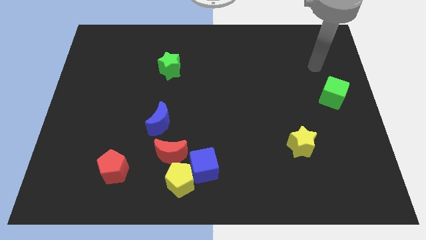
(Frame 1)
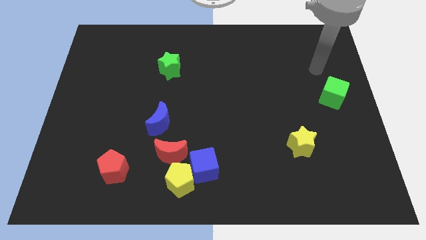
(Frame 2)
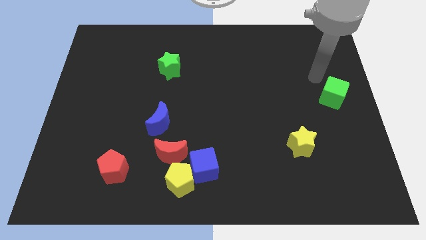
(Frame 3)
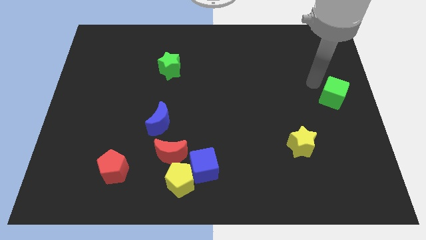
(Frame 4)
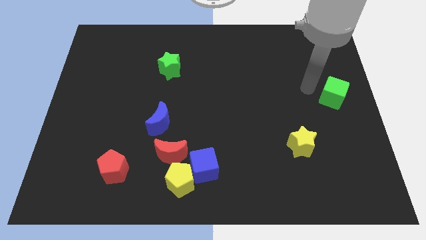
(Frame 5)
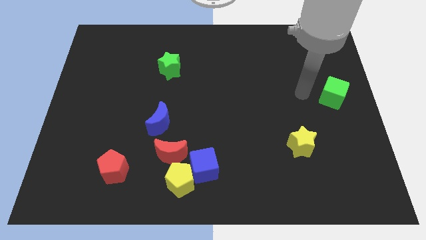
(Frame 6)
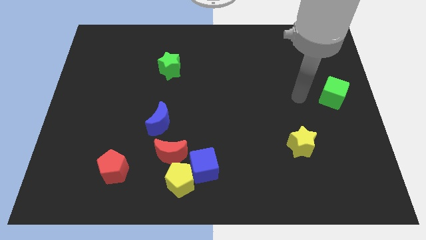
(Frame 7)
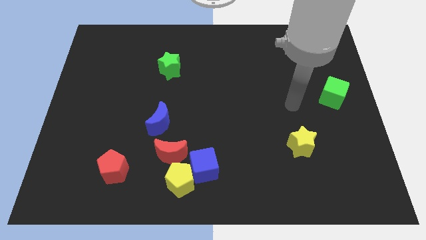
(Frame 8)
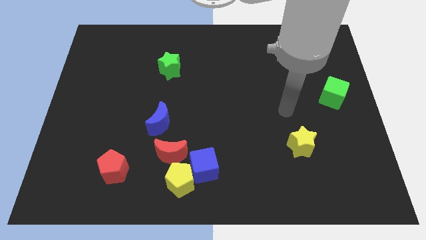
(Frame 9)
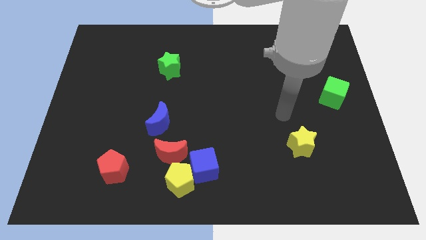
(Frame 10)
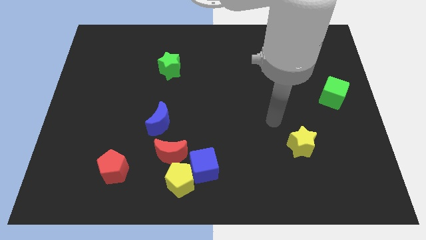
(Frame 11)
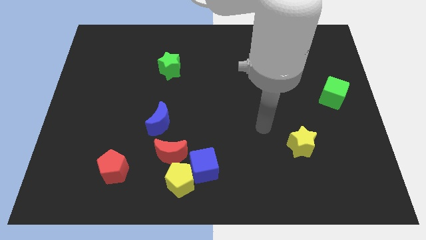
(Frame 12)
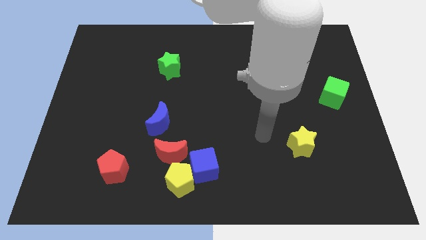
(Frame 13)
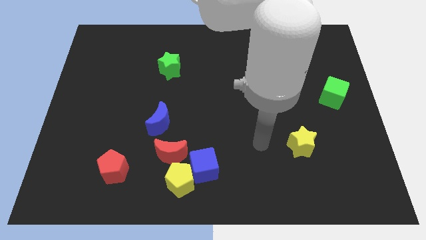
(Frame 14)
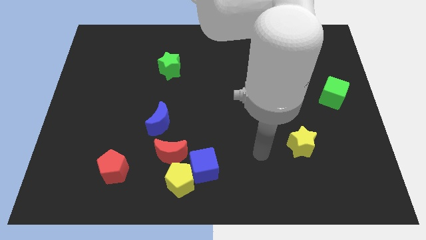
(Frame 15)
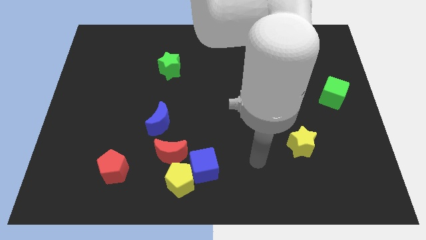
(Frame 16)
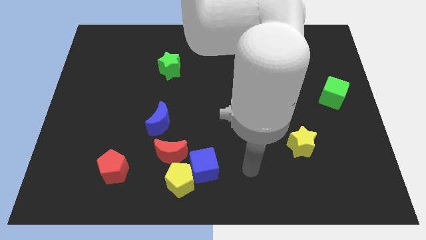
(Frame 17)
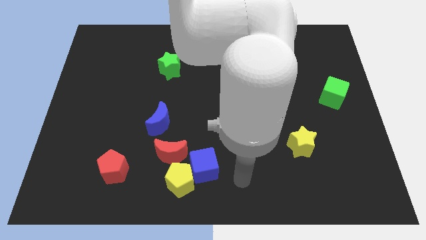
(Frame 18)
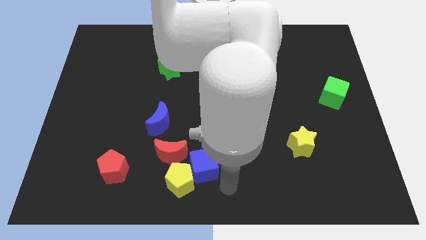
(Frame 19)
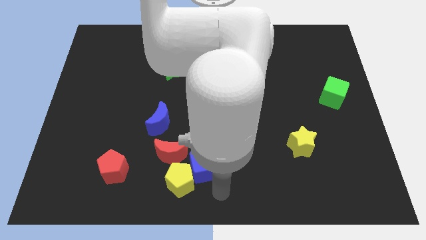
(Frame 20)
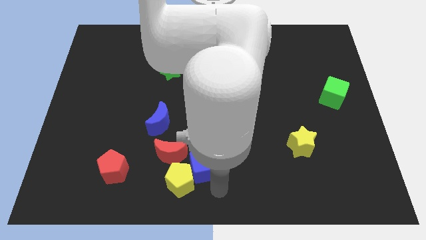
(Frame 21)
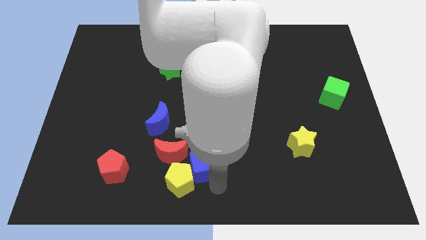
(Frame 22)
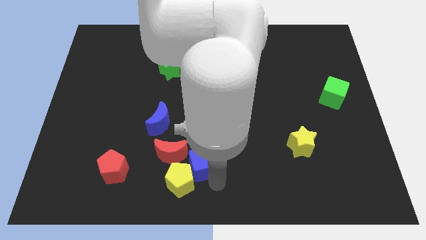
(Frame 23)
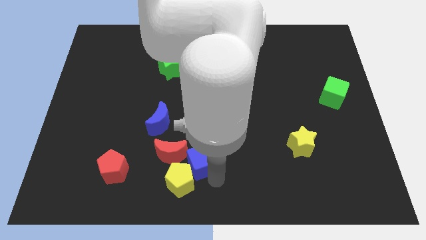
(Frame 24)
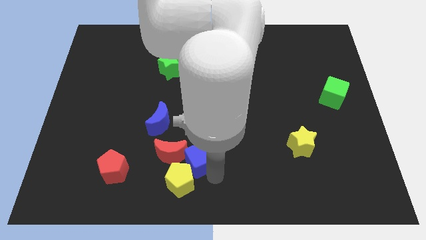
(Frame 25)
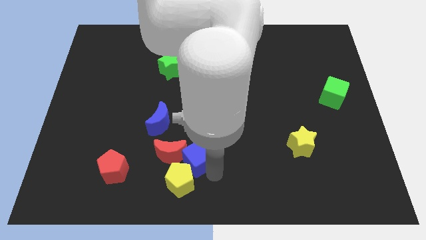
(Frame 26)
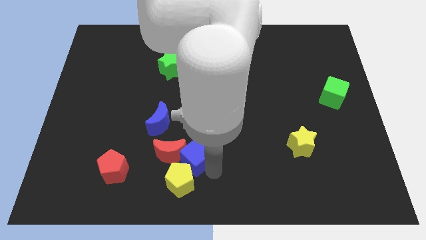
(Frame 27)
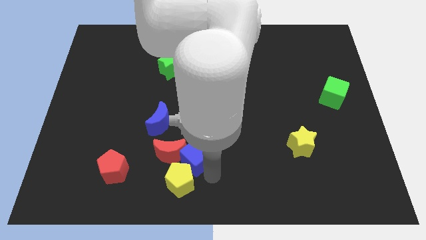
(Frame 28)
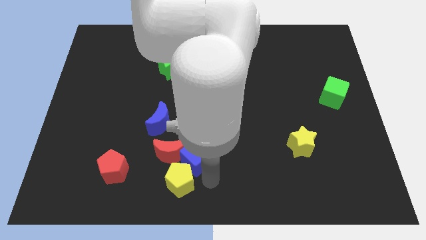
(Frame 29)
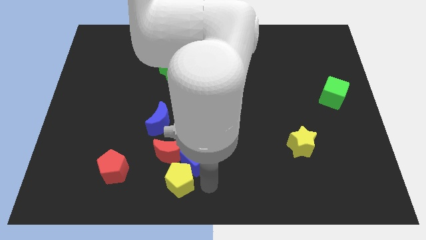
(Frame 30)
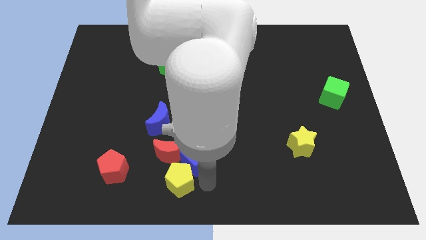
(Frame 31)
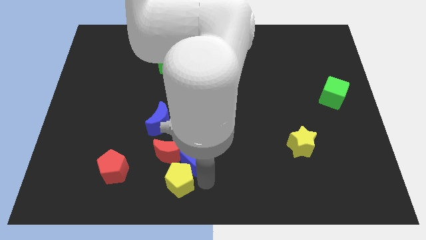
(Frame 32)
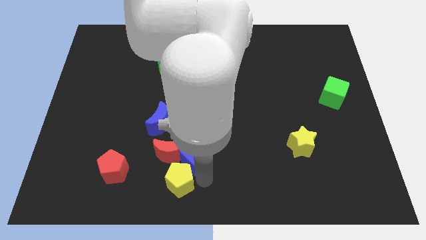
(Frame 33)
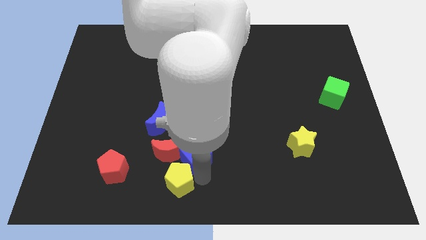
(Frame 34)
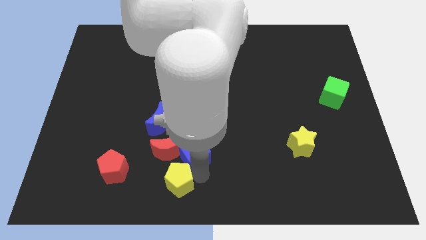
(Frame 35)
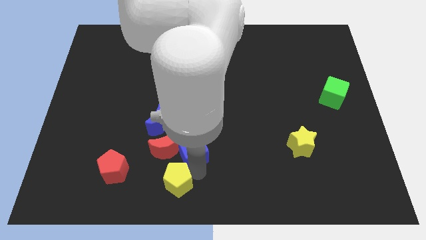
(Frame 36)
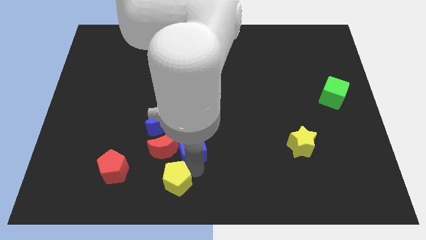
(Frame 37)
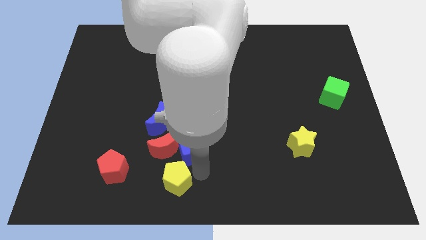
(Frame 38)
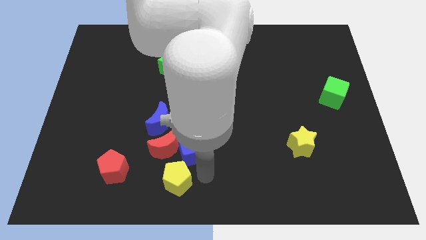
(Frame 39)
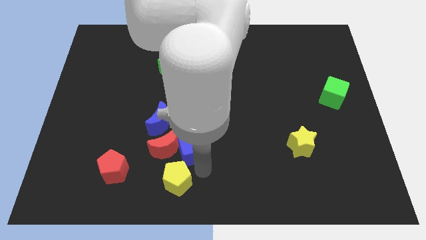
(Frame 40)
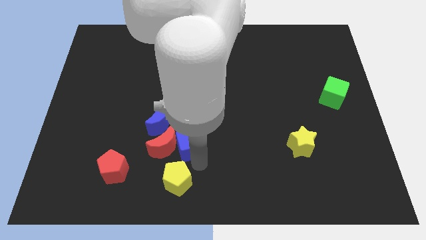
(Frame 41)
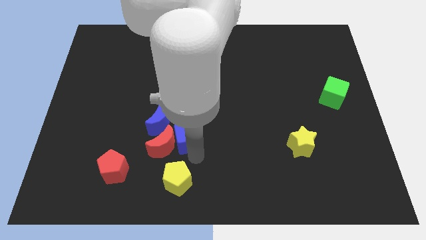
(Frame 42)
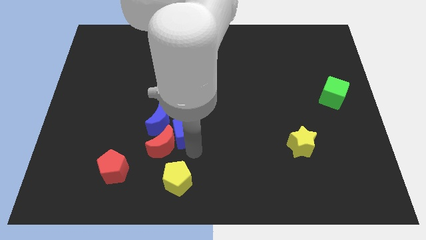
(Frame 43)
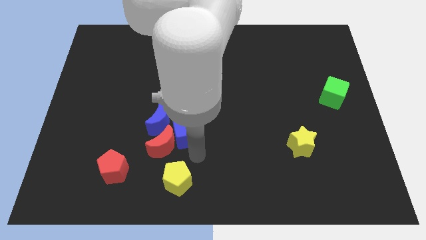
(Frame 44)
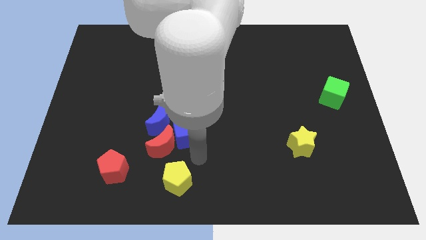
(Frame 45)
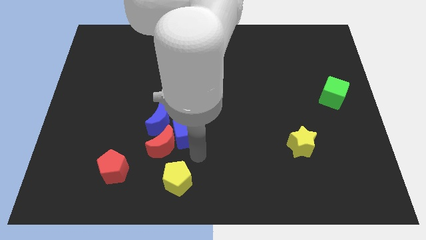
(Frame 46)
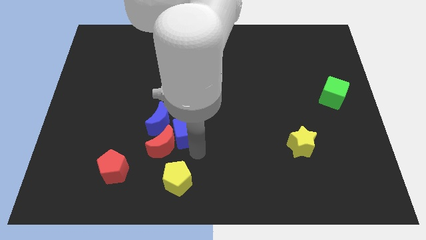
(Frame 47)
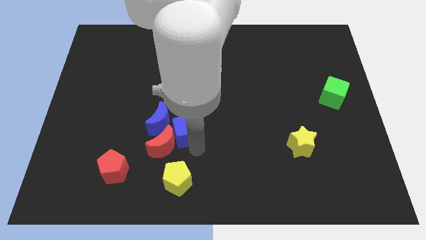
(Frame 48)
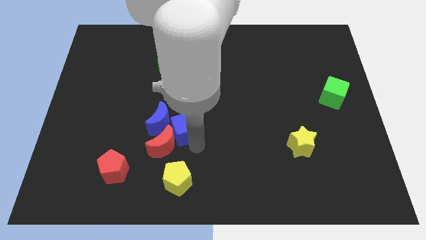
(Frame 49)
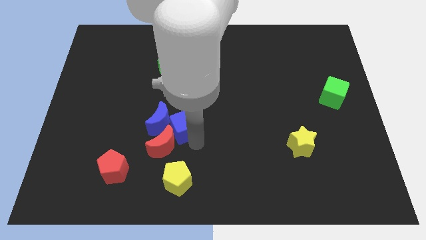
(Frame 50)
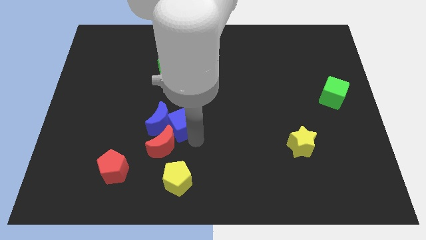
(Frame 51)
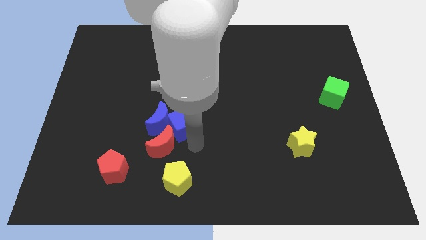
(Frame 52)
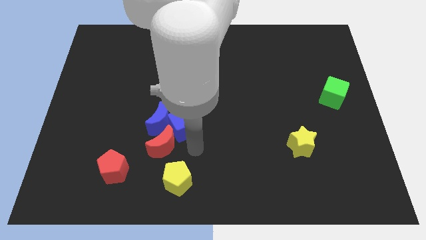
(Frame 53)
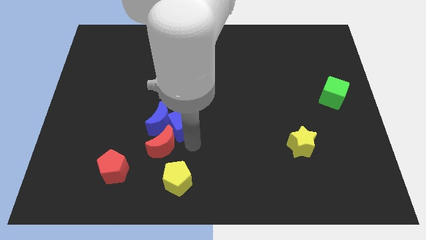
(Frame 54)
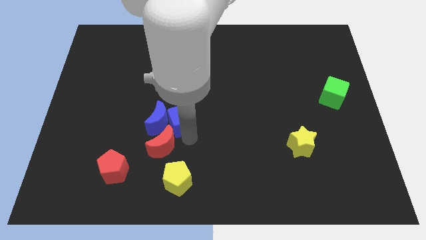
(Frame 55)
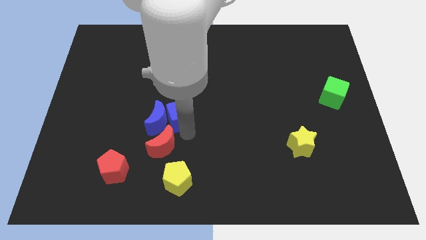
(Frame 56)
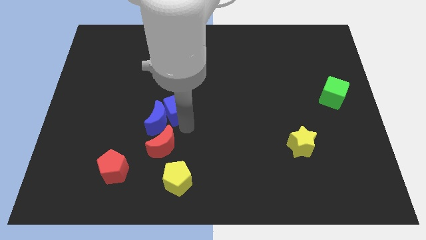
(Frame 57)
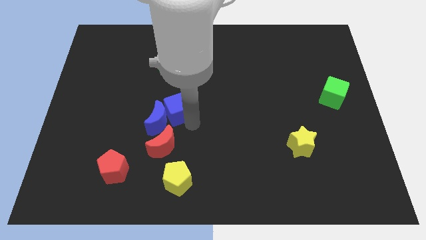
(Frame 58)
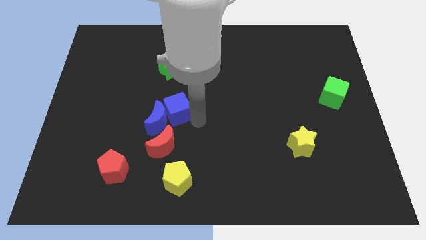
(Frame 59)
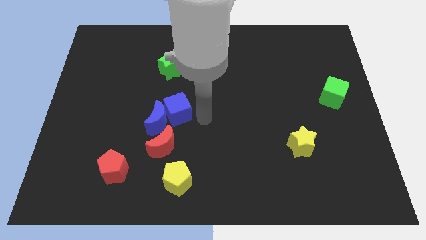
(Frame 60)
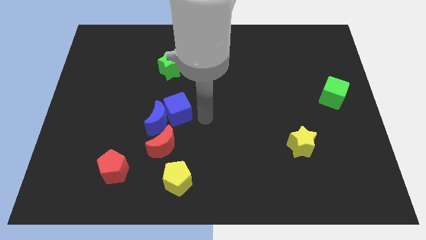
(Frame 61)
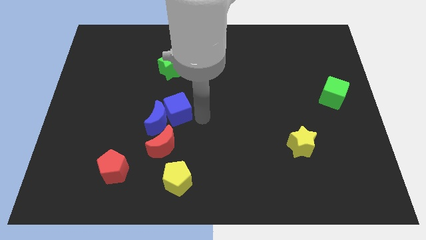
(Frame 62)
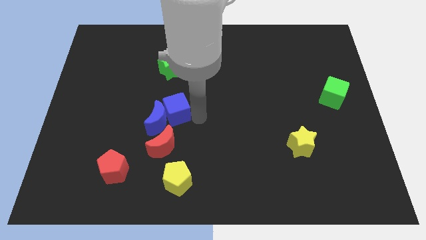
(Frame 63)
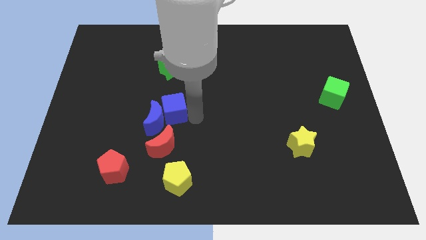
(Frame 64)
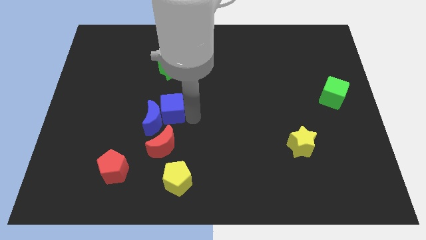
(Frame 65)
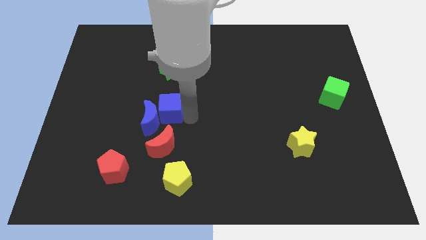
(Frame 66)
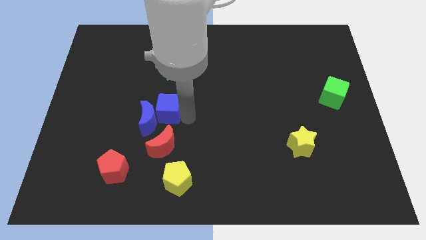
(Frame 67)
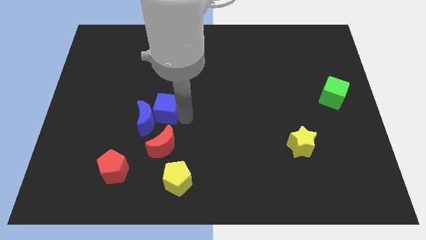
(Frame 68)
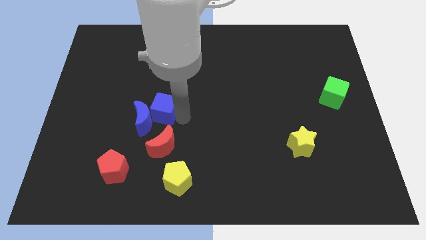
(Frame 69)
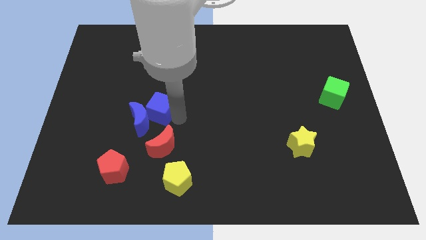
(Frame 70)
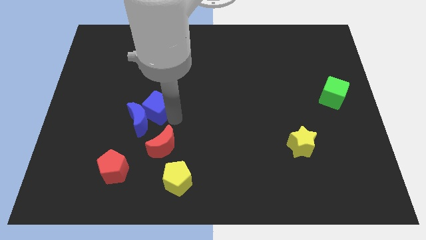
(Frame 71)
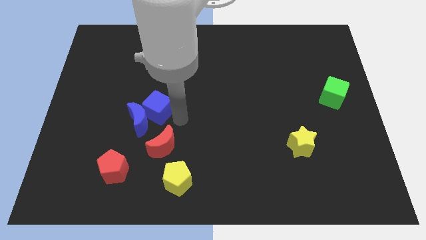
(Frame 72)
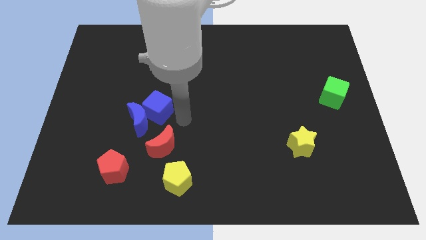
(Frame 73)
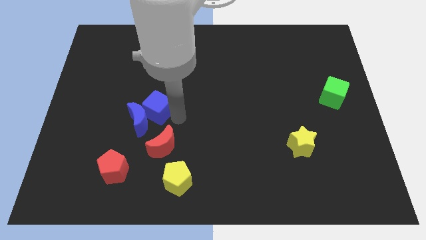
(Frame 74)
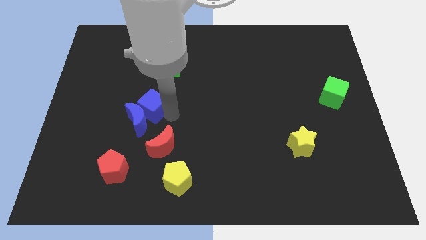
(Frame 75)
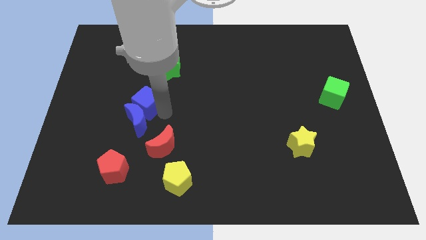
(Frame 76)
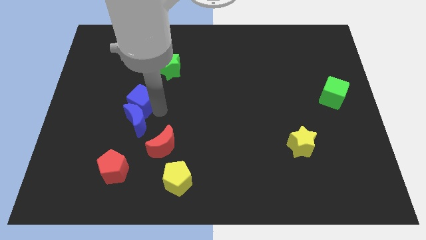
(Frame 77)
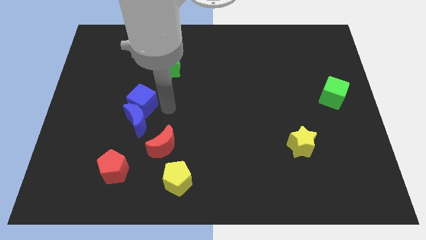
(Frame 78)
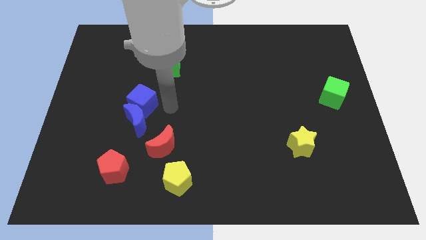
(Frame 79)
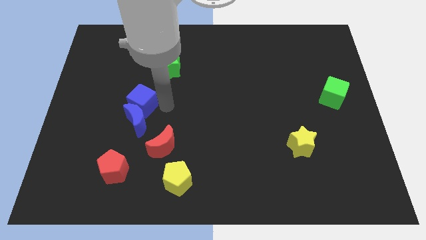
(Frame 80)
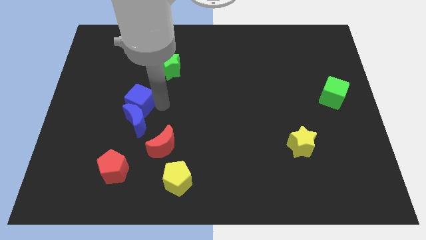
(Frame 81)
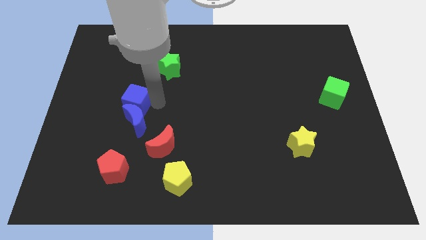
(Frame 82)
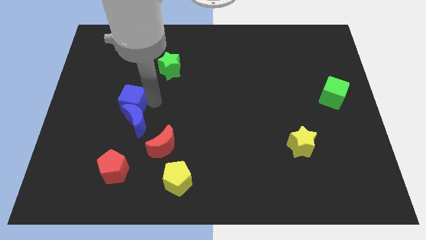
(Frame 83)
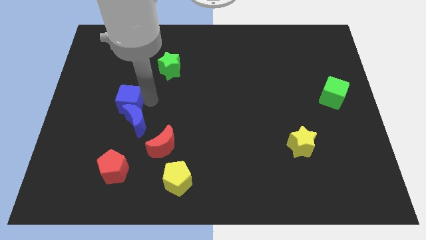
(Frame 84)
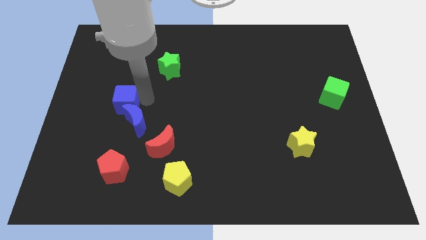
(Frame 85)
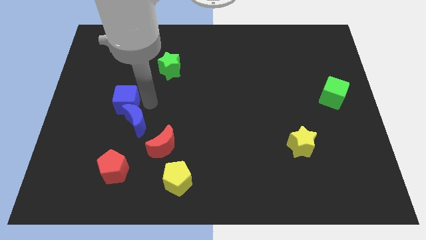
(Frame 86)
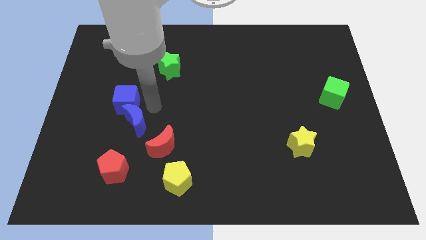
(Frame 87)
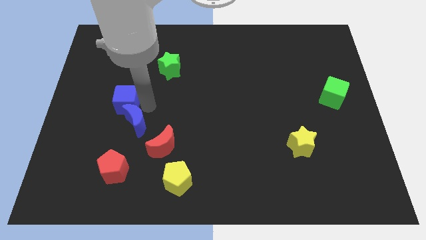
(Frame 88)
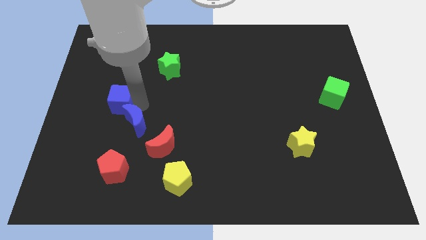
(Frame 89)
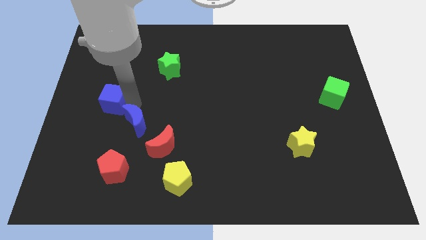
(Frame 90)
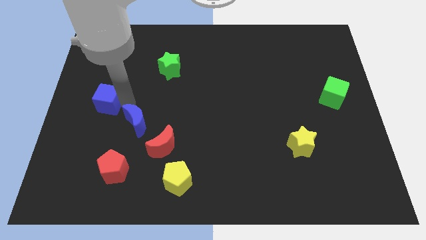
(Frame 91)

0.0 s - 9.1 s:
slide the blue cube to the left side of the board
